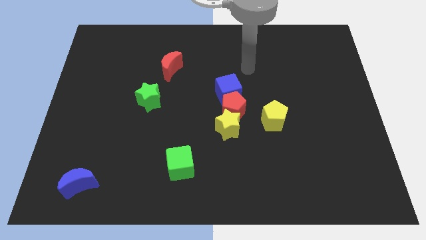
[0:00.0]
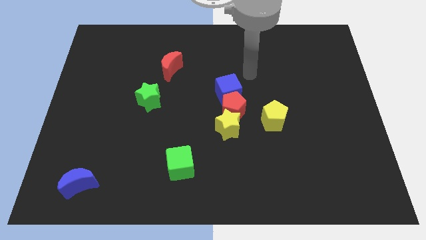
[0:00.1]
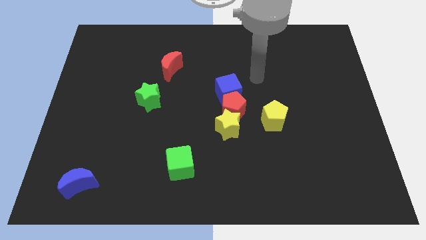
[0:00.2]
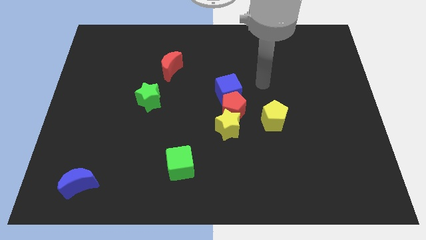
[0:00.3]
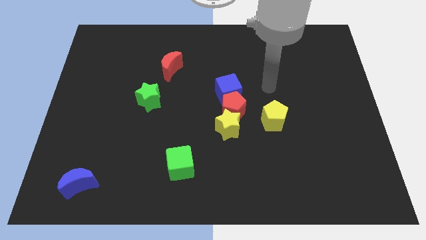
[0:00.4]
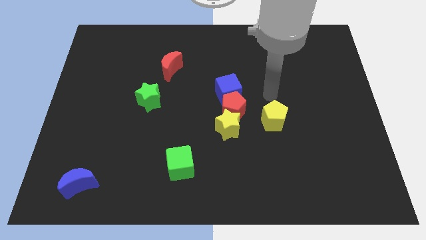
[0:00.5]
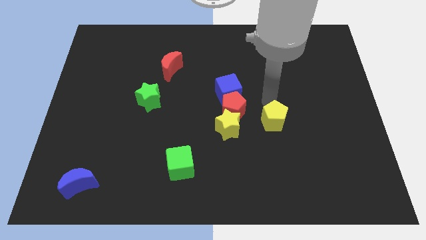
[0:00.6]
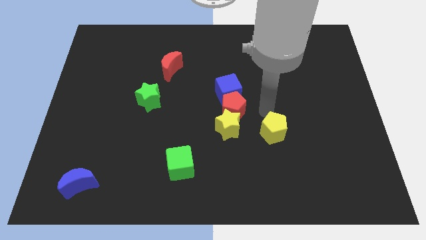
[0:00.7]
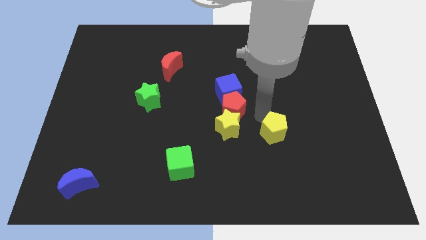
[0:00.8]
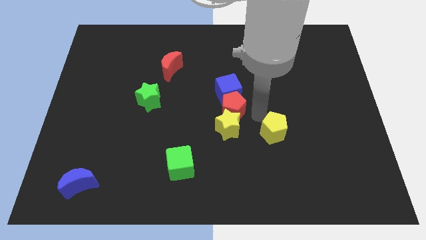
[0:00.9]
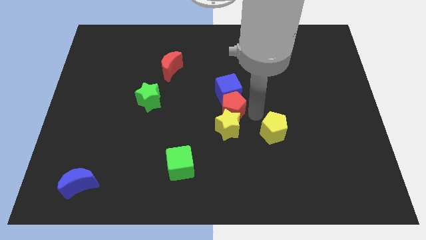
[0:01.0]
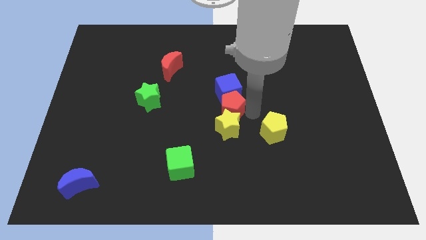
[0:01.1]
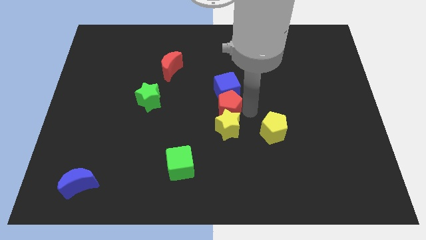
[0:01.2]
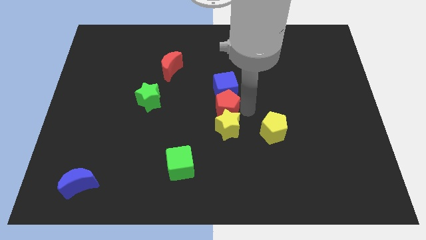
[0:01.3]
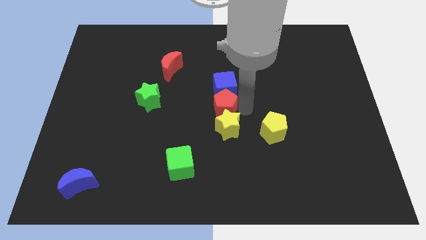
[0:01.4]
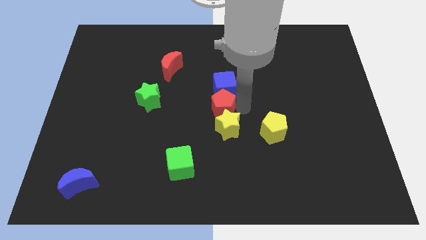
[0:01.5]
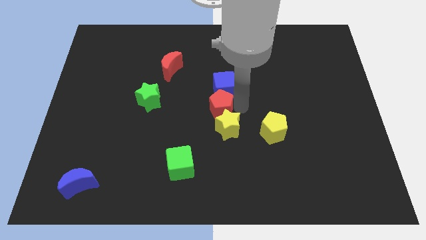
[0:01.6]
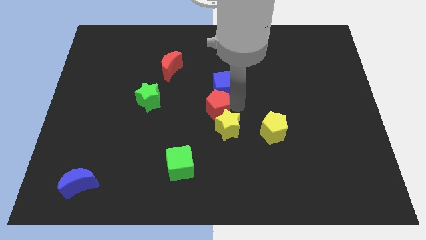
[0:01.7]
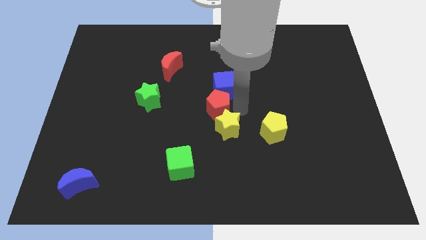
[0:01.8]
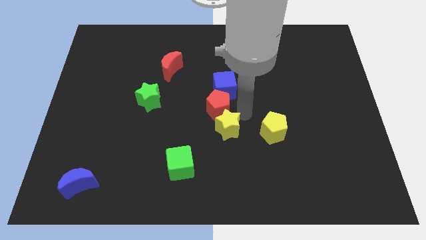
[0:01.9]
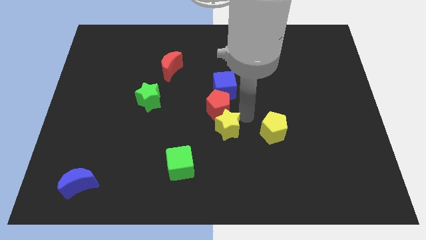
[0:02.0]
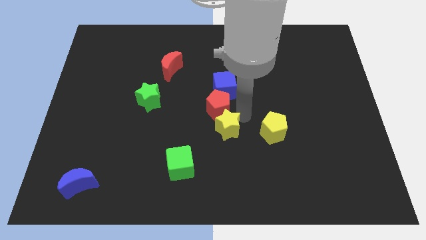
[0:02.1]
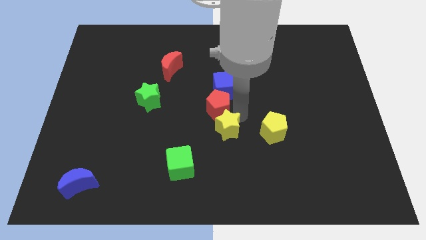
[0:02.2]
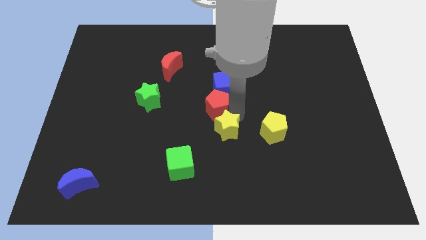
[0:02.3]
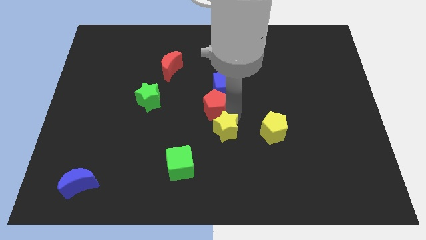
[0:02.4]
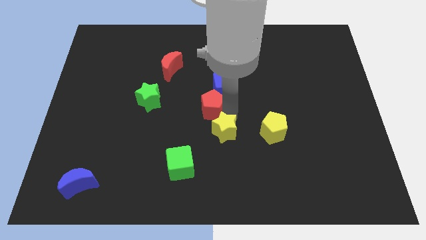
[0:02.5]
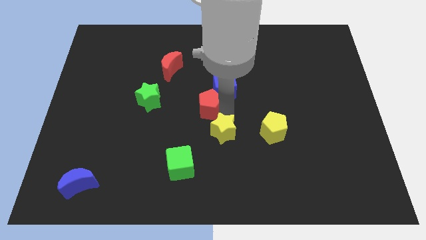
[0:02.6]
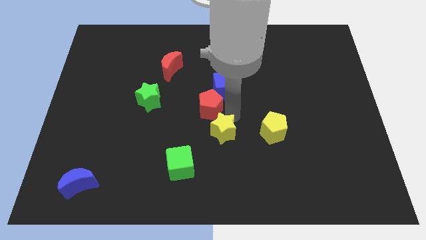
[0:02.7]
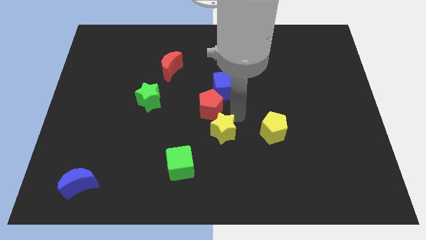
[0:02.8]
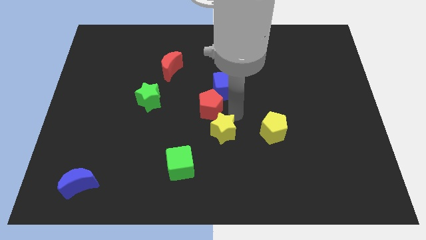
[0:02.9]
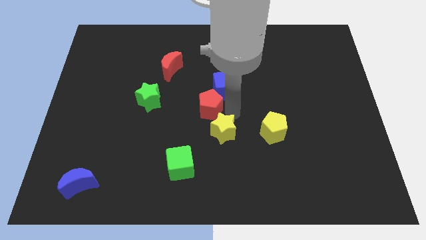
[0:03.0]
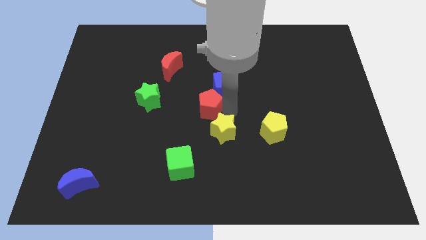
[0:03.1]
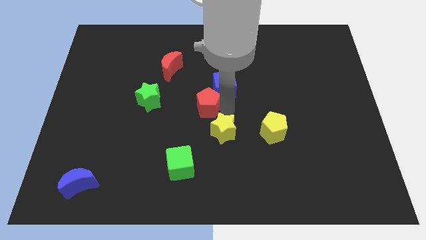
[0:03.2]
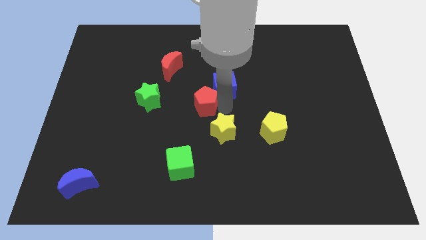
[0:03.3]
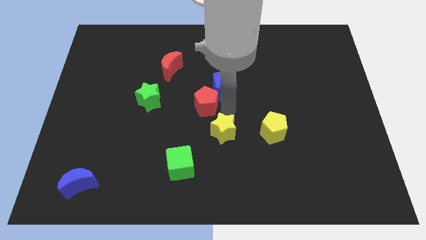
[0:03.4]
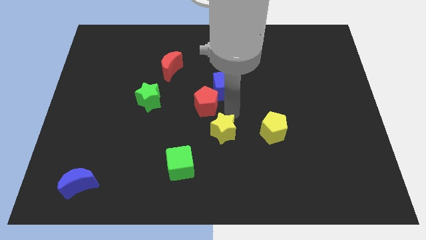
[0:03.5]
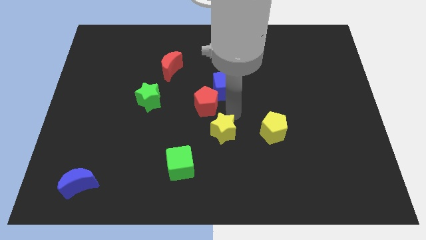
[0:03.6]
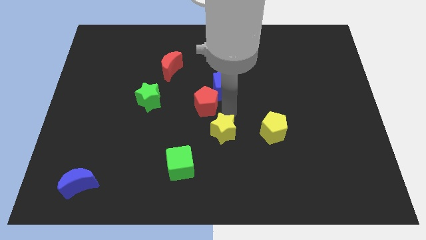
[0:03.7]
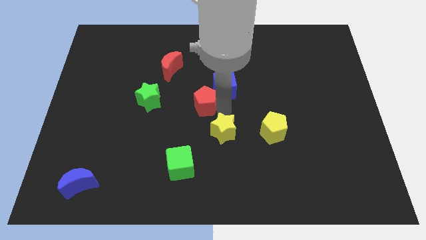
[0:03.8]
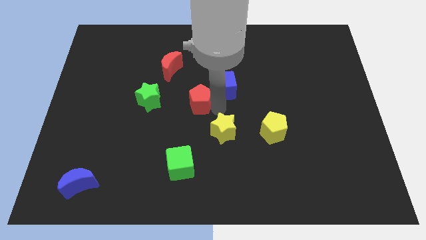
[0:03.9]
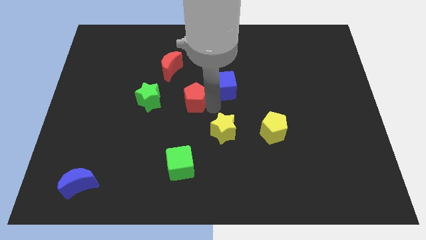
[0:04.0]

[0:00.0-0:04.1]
move the red pentagon away from the clump

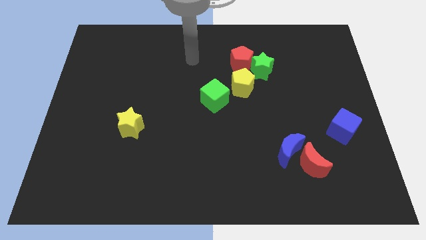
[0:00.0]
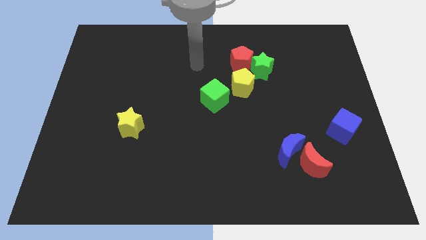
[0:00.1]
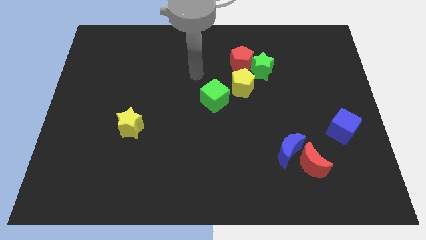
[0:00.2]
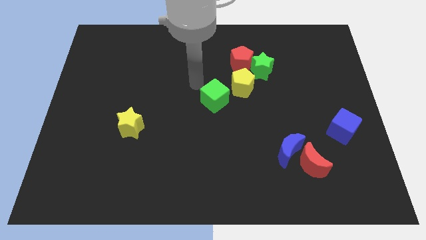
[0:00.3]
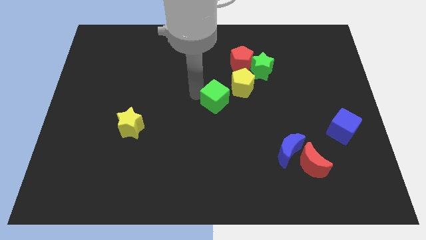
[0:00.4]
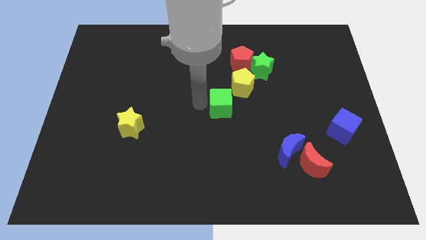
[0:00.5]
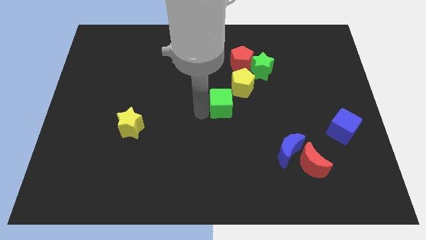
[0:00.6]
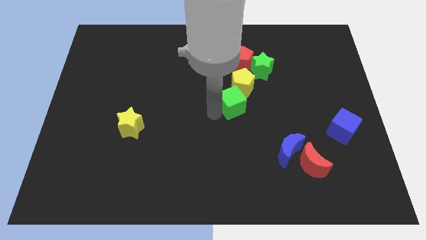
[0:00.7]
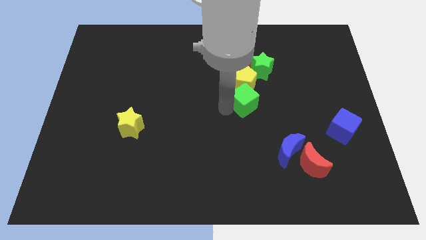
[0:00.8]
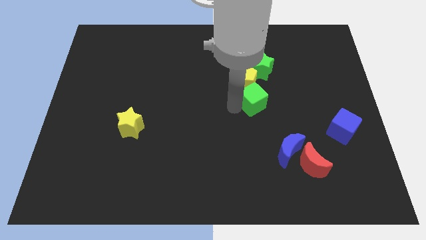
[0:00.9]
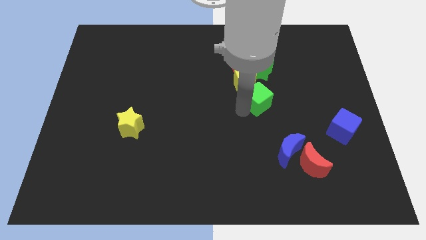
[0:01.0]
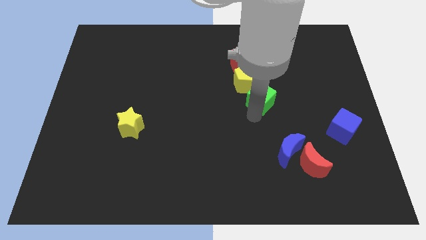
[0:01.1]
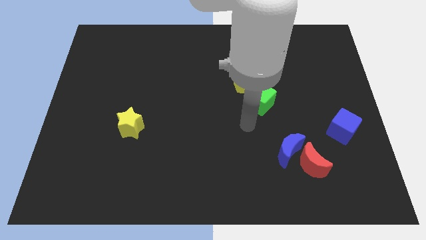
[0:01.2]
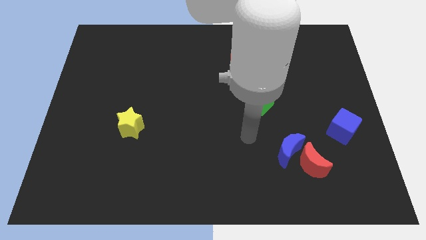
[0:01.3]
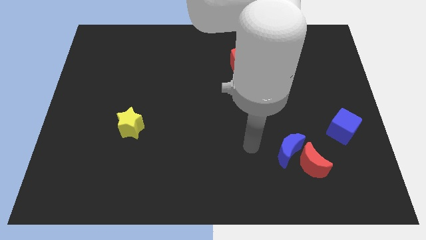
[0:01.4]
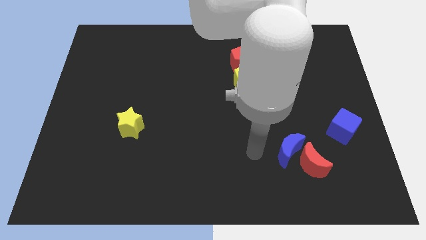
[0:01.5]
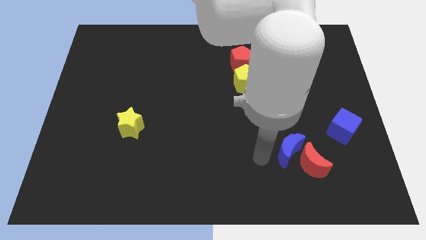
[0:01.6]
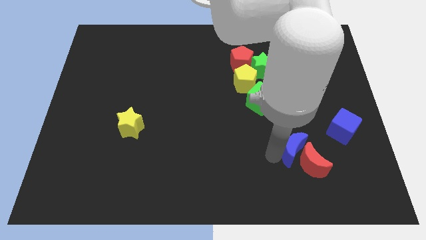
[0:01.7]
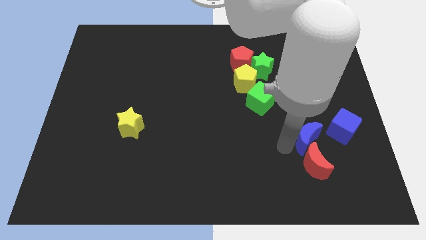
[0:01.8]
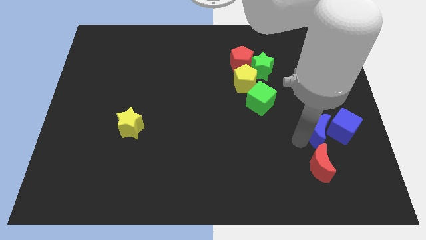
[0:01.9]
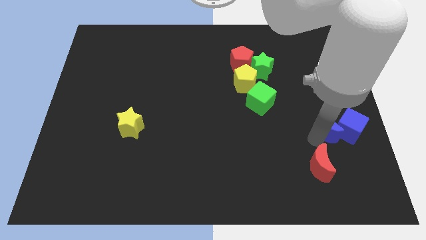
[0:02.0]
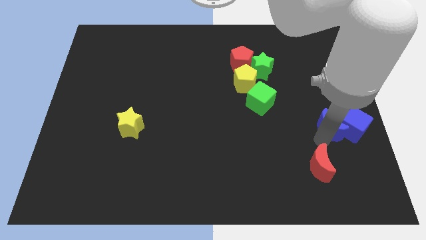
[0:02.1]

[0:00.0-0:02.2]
move the red moon away from the blue moon

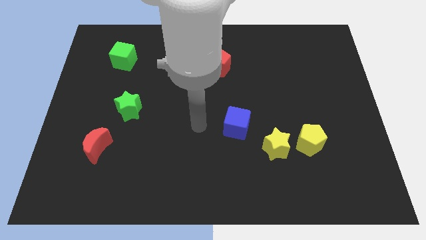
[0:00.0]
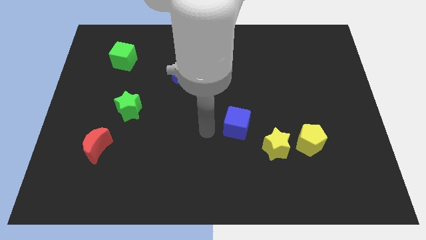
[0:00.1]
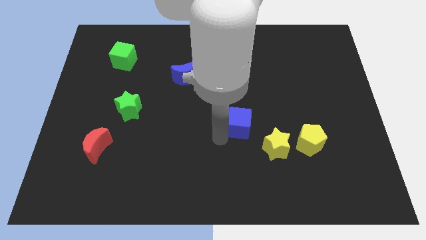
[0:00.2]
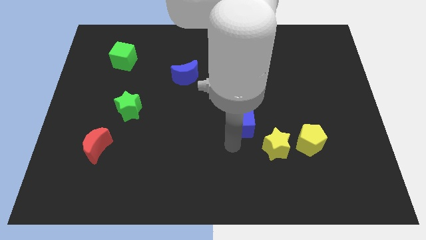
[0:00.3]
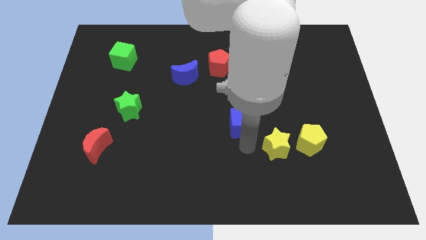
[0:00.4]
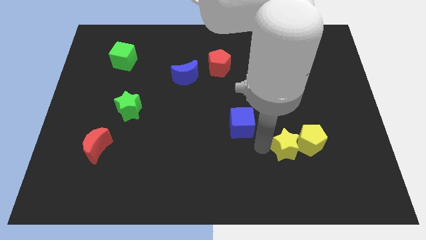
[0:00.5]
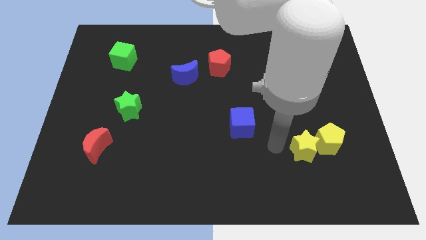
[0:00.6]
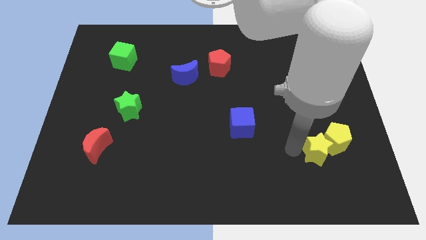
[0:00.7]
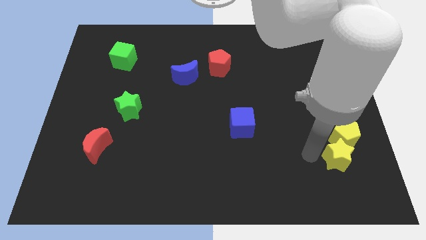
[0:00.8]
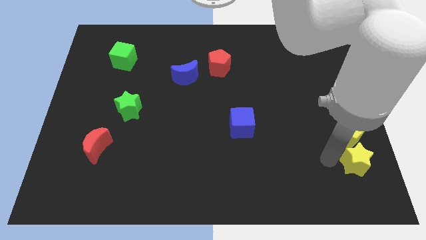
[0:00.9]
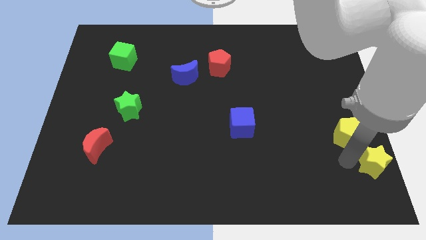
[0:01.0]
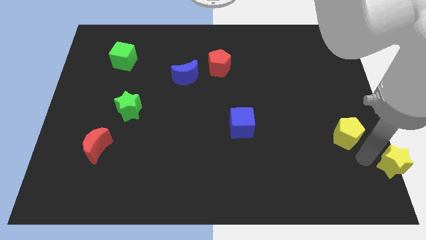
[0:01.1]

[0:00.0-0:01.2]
separate the yellow pentagon from the yellow star

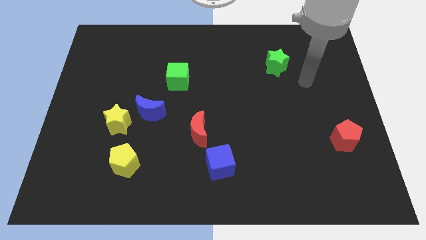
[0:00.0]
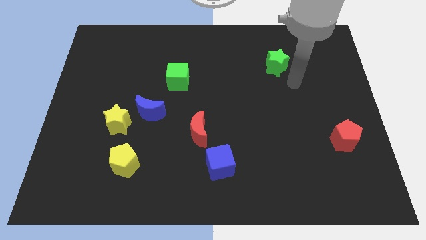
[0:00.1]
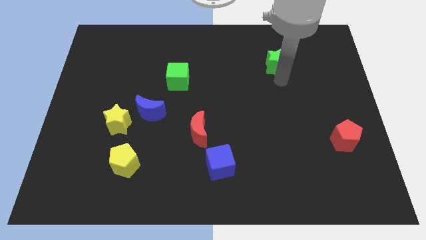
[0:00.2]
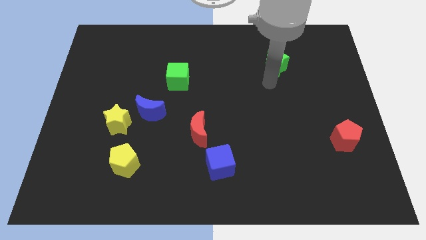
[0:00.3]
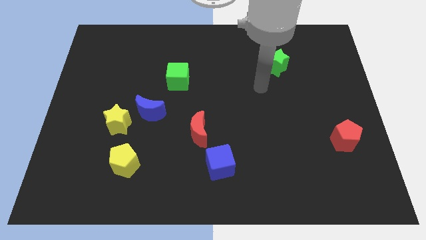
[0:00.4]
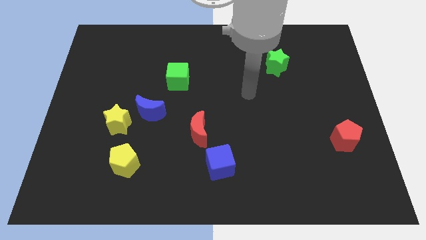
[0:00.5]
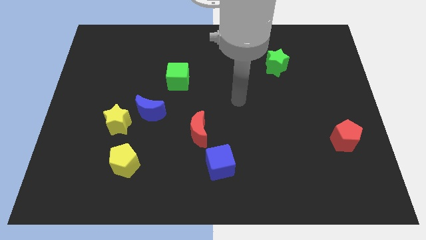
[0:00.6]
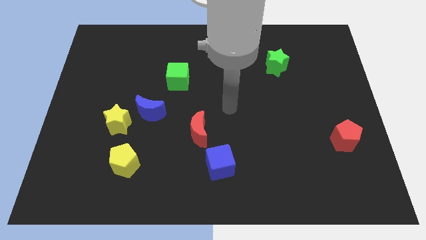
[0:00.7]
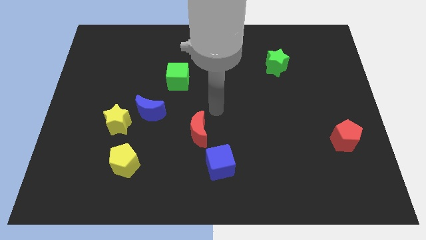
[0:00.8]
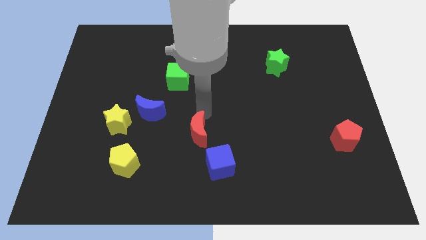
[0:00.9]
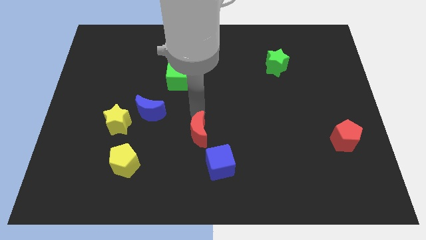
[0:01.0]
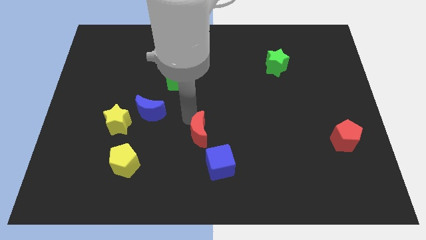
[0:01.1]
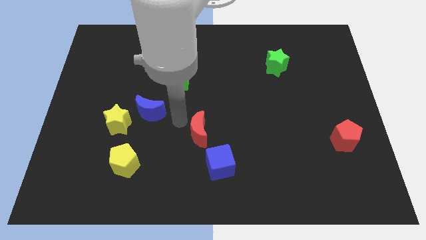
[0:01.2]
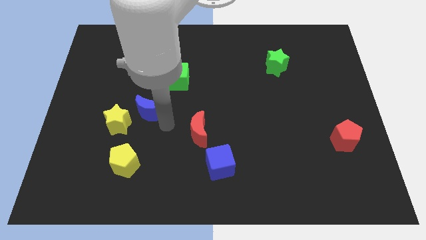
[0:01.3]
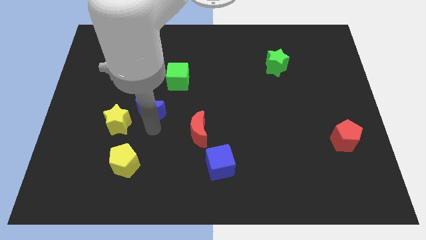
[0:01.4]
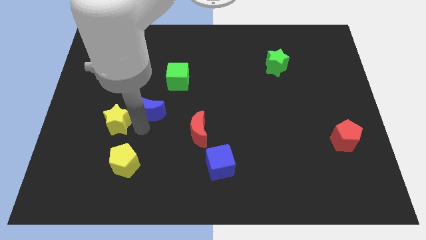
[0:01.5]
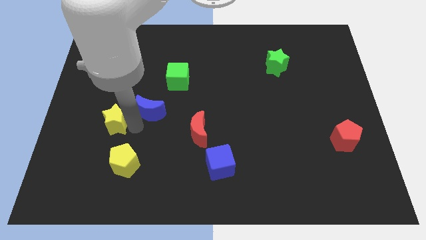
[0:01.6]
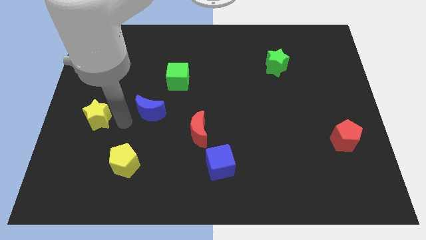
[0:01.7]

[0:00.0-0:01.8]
pull the blue moon apart from the yellow star
